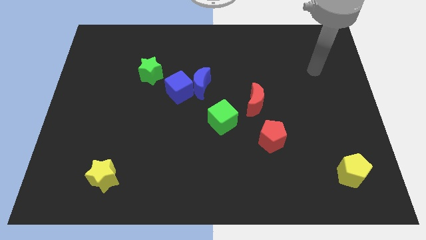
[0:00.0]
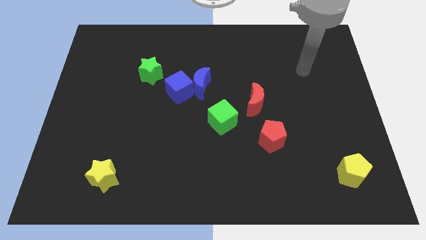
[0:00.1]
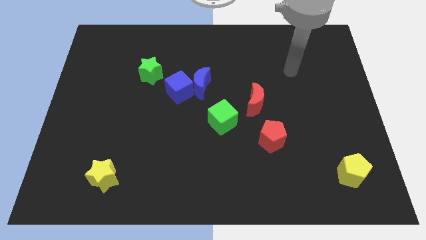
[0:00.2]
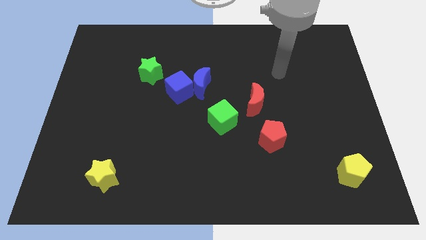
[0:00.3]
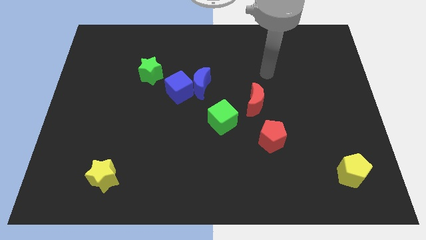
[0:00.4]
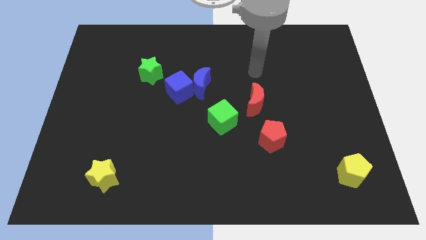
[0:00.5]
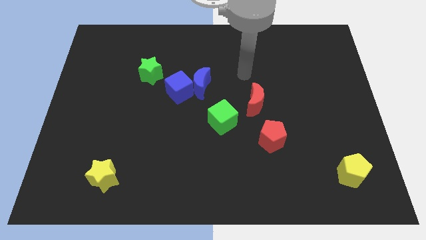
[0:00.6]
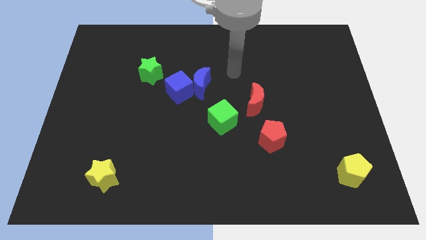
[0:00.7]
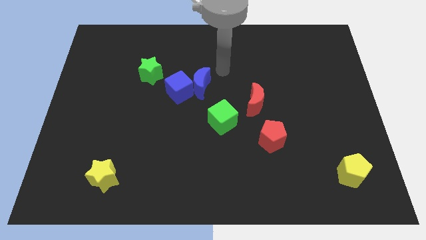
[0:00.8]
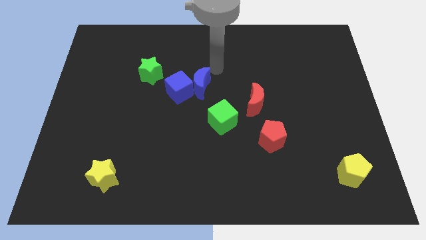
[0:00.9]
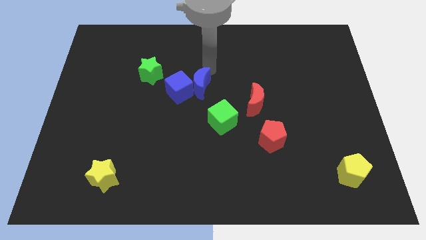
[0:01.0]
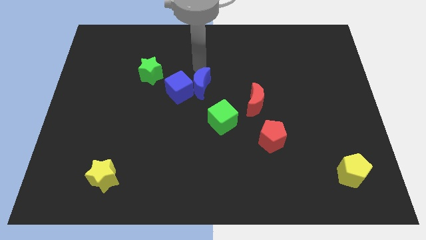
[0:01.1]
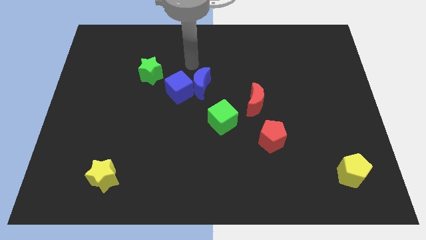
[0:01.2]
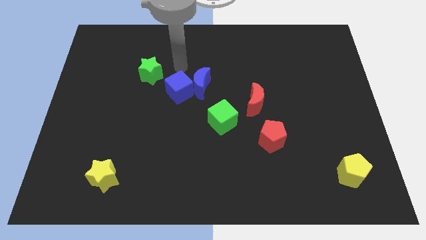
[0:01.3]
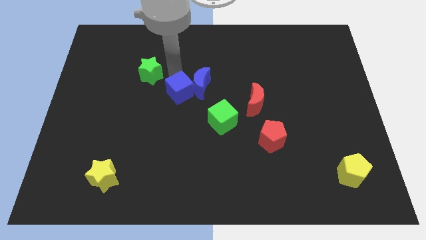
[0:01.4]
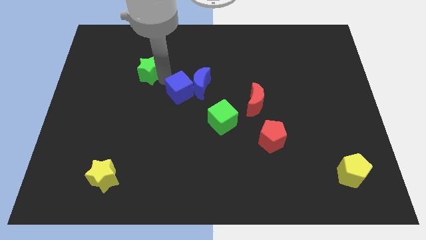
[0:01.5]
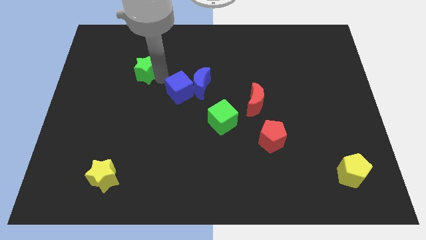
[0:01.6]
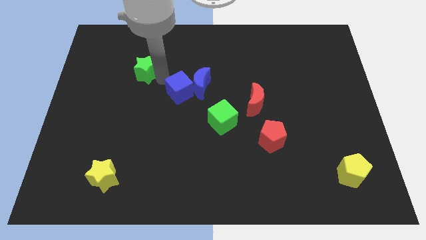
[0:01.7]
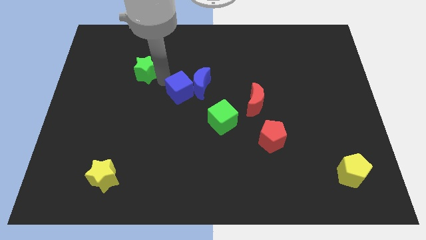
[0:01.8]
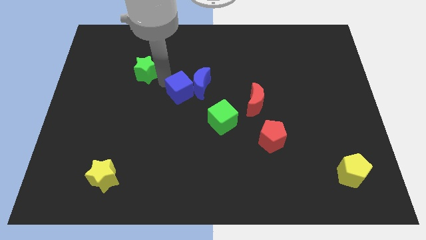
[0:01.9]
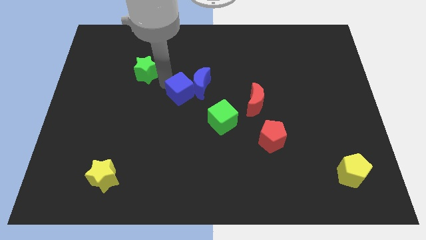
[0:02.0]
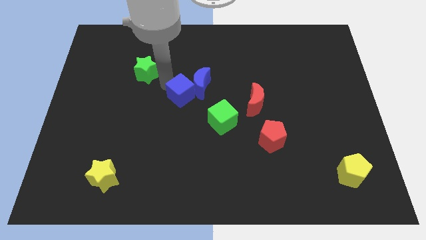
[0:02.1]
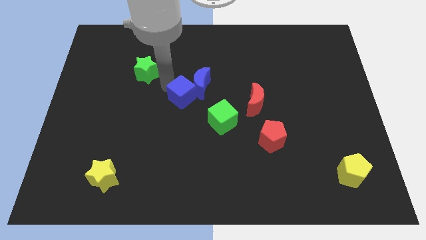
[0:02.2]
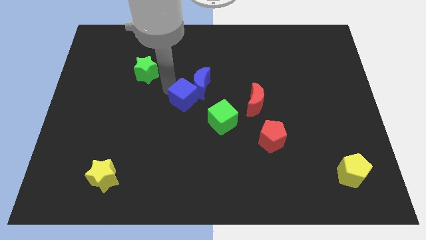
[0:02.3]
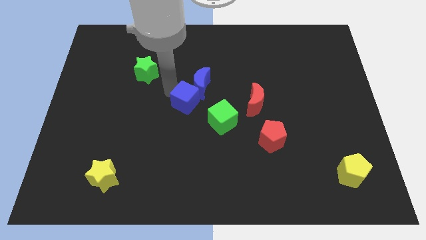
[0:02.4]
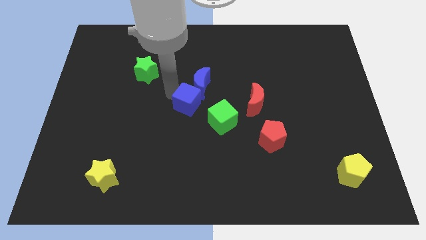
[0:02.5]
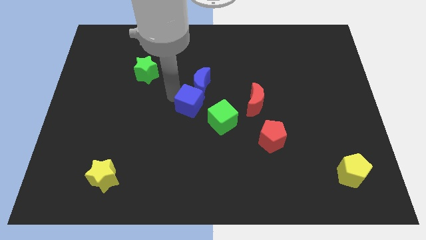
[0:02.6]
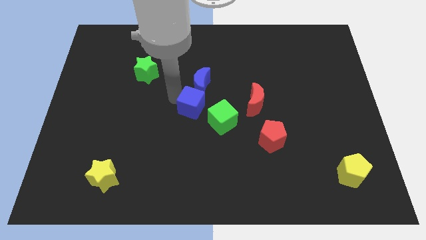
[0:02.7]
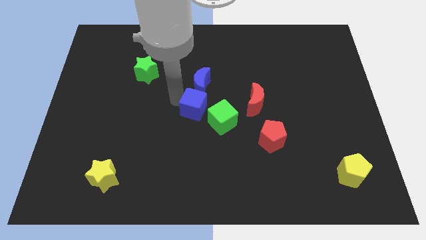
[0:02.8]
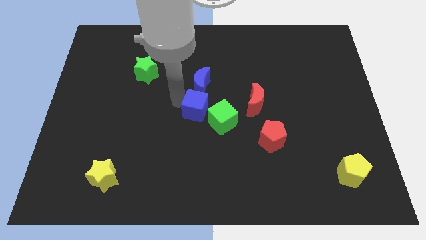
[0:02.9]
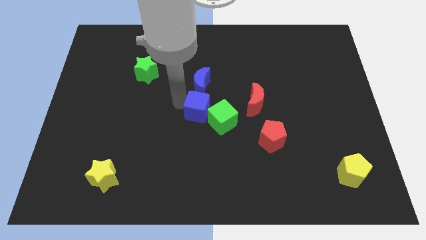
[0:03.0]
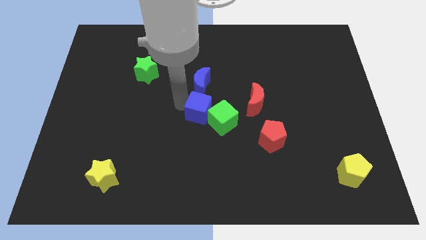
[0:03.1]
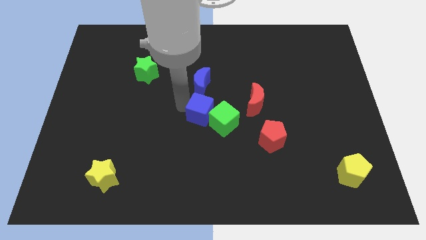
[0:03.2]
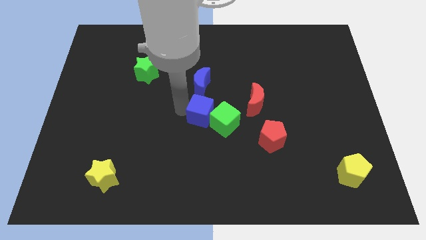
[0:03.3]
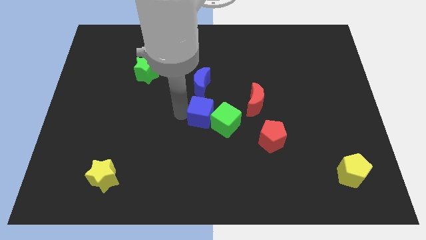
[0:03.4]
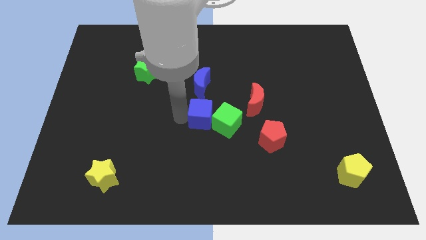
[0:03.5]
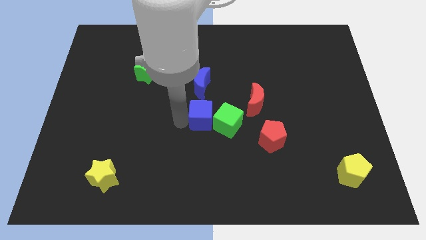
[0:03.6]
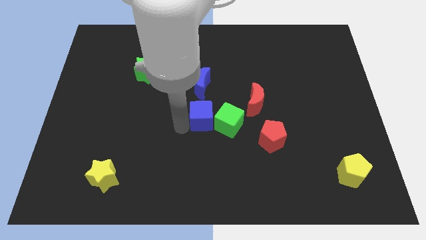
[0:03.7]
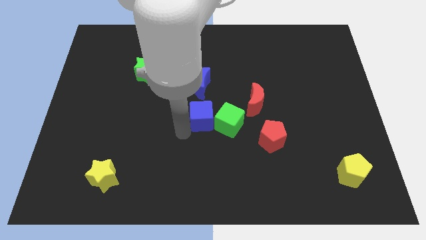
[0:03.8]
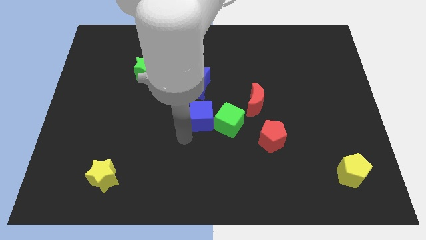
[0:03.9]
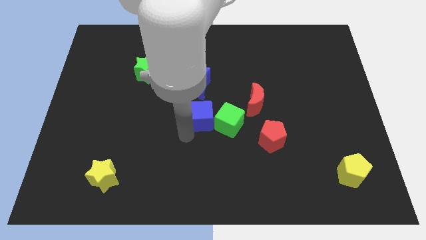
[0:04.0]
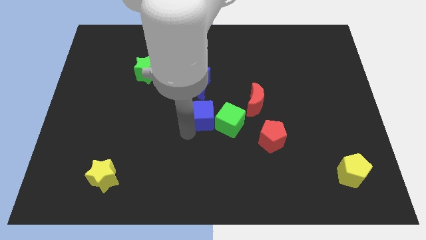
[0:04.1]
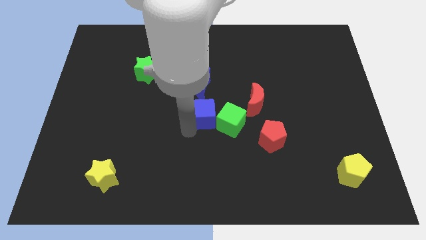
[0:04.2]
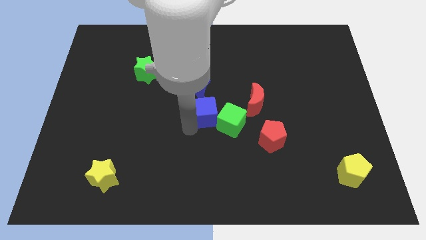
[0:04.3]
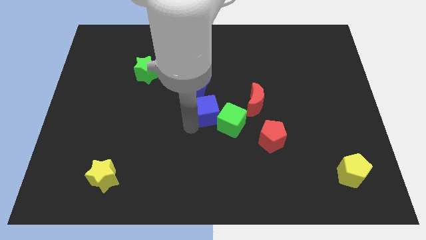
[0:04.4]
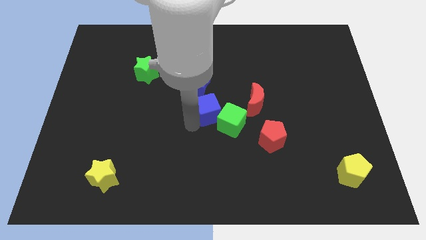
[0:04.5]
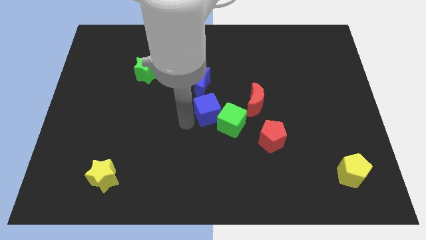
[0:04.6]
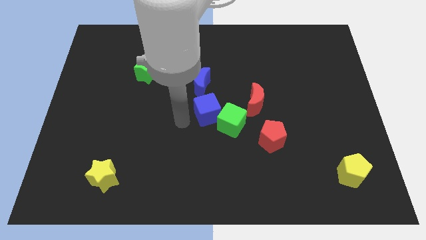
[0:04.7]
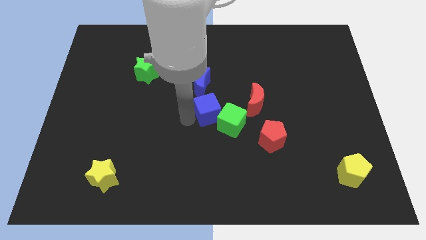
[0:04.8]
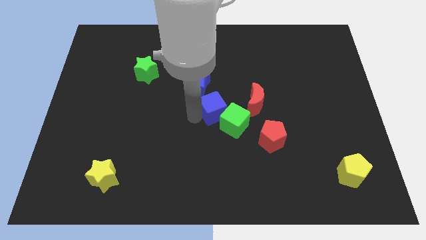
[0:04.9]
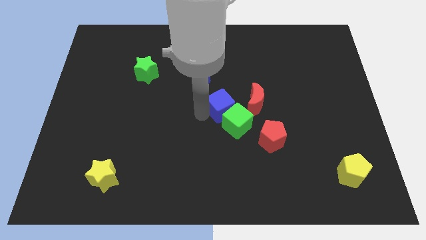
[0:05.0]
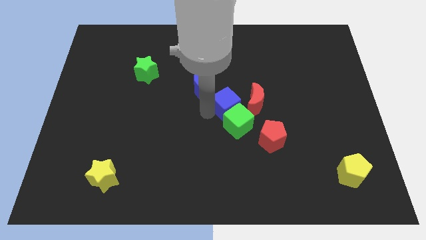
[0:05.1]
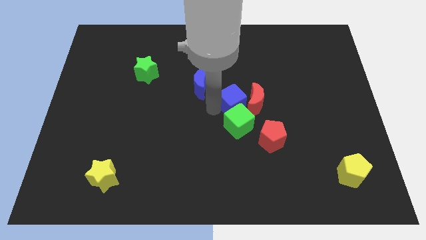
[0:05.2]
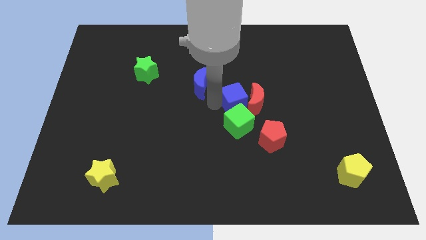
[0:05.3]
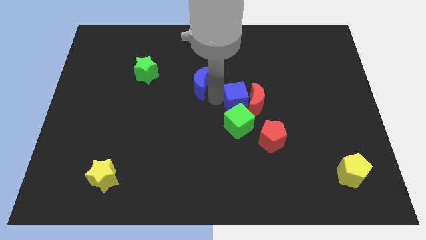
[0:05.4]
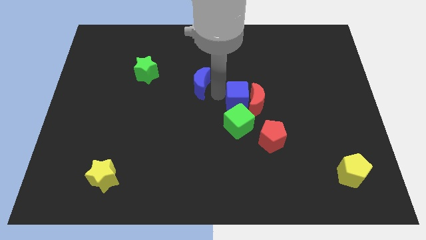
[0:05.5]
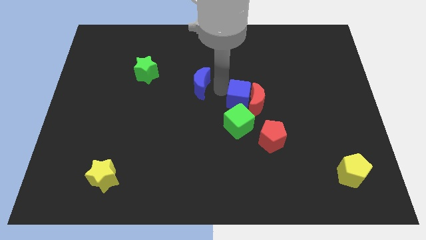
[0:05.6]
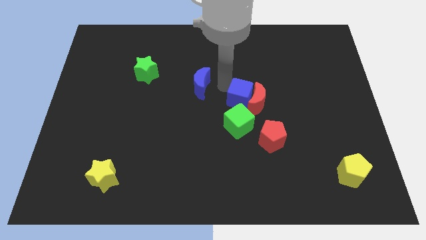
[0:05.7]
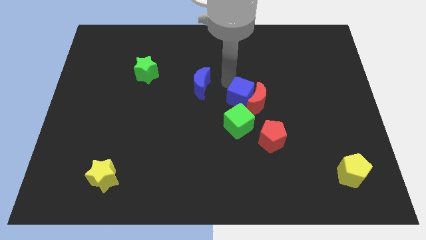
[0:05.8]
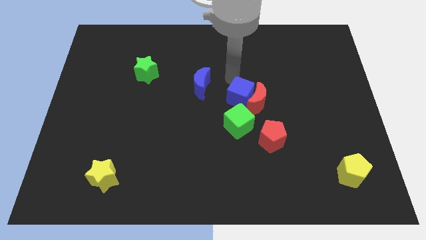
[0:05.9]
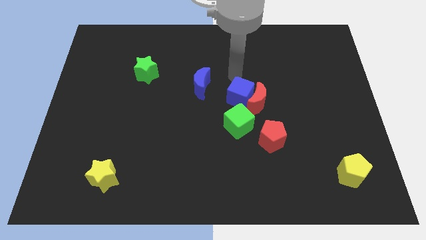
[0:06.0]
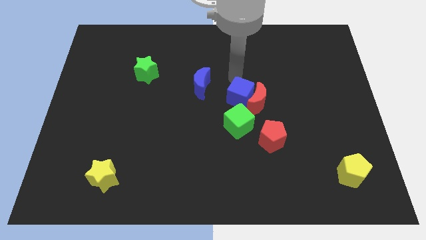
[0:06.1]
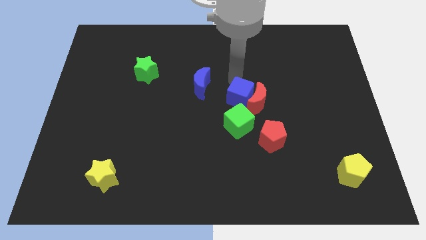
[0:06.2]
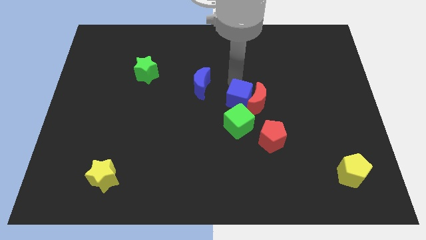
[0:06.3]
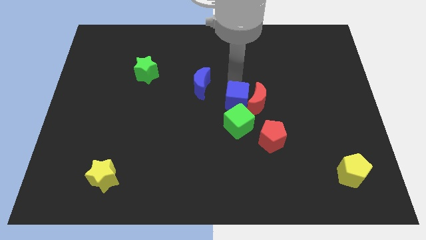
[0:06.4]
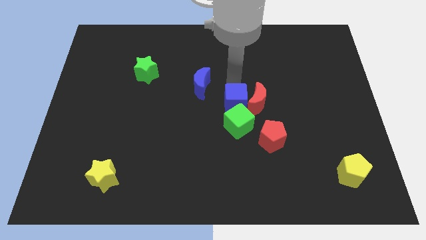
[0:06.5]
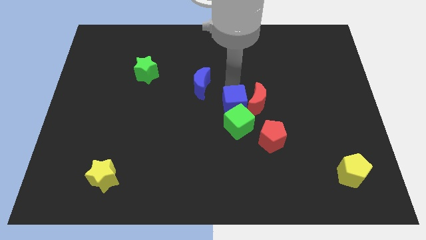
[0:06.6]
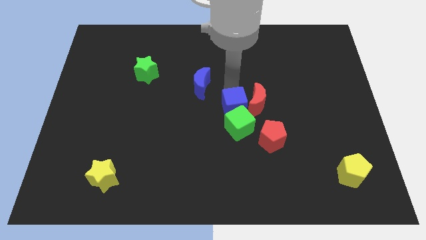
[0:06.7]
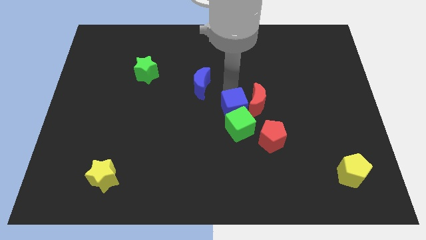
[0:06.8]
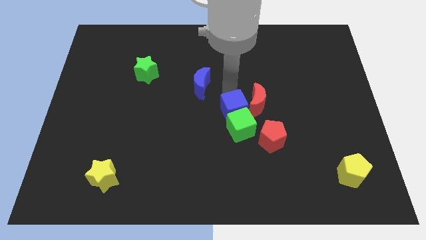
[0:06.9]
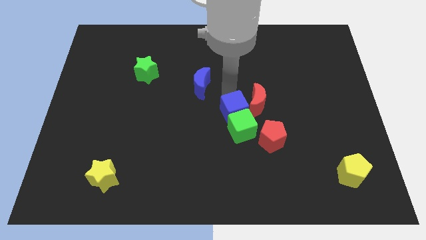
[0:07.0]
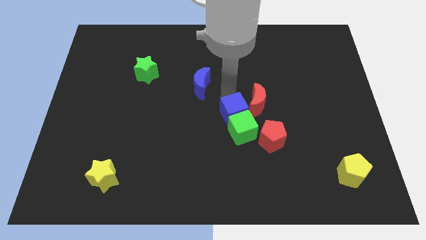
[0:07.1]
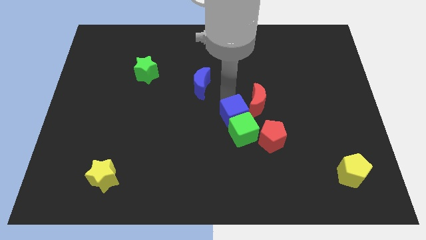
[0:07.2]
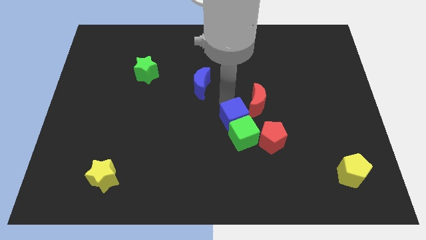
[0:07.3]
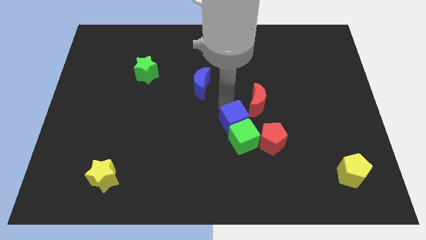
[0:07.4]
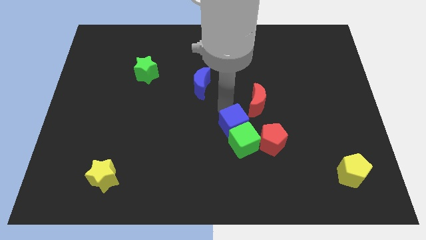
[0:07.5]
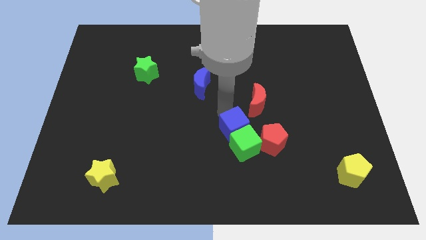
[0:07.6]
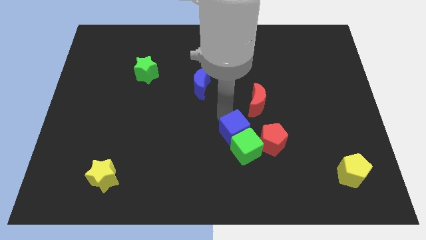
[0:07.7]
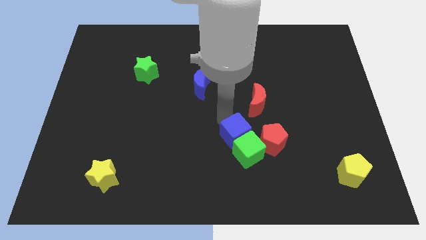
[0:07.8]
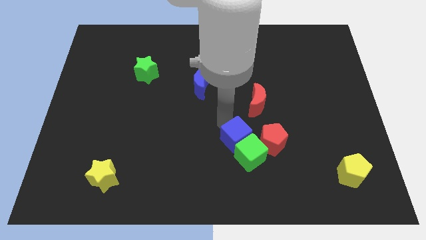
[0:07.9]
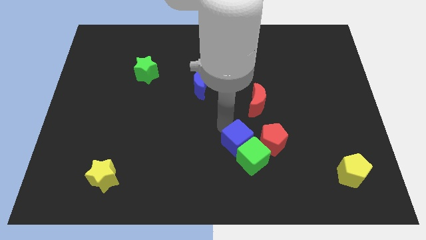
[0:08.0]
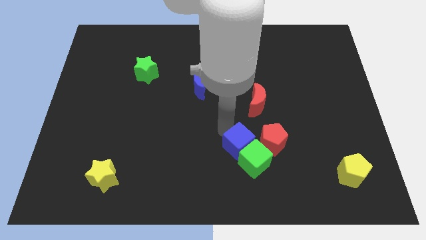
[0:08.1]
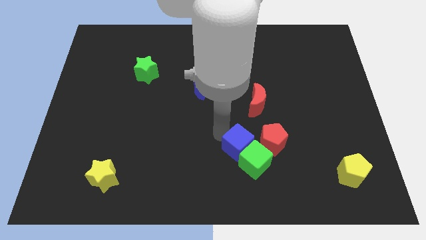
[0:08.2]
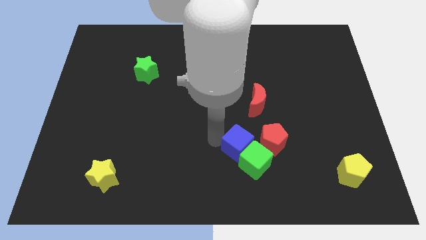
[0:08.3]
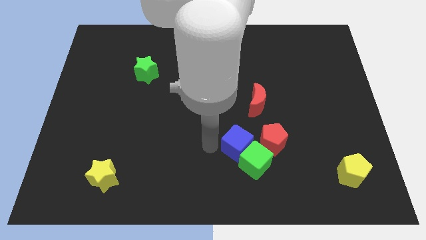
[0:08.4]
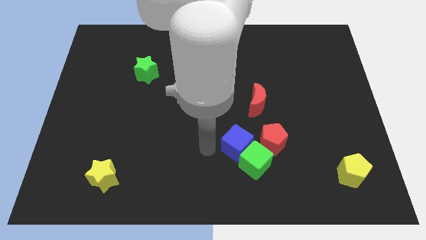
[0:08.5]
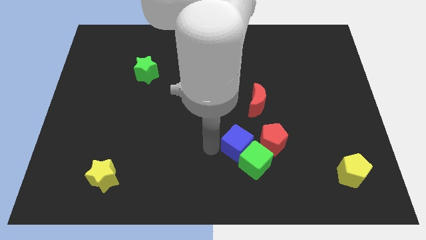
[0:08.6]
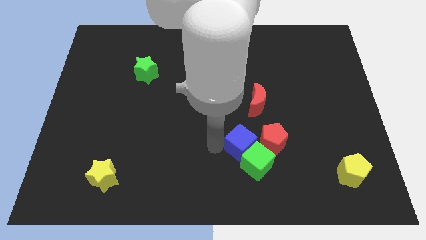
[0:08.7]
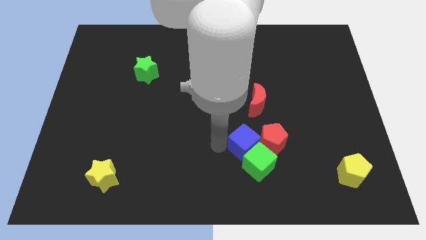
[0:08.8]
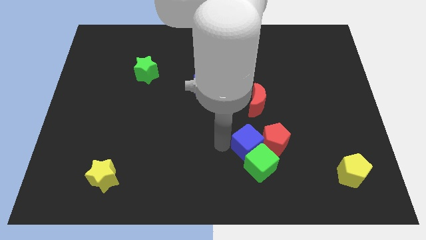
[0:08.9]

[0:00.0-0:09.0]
slide the blue cube next to the red pentagon
